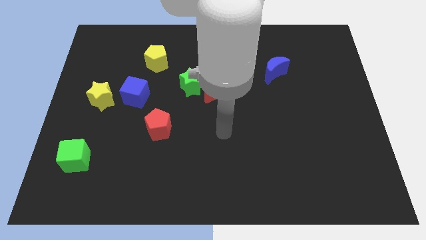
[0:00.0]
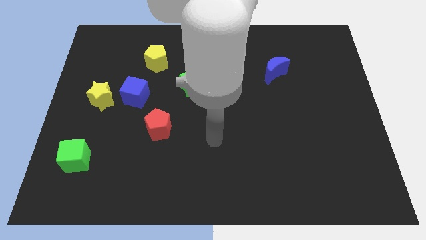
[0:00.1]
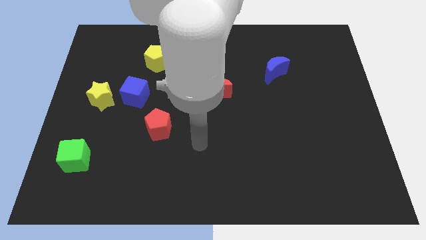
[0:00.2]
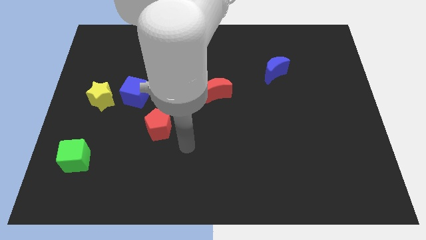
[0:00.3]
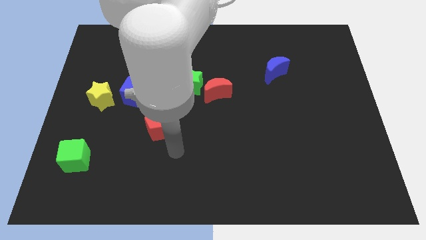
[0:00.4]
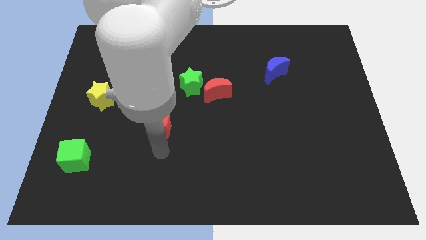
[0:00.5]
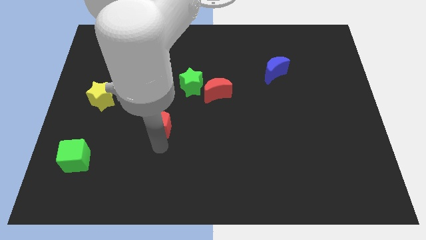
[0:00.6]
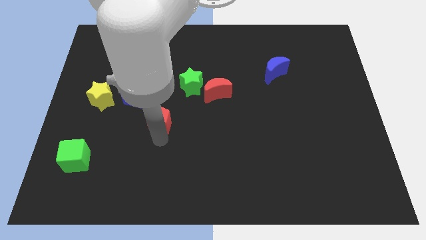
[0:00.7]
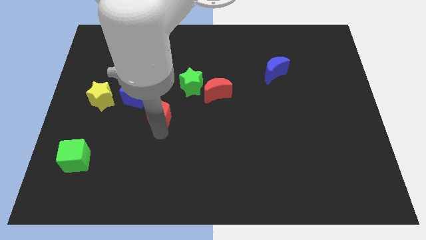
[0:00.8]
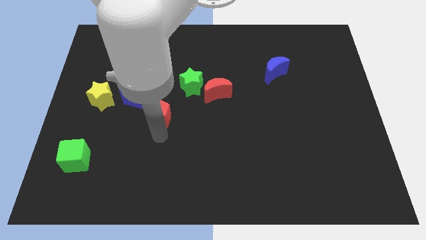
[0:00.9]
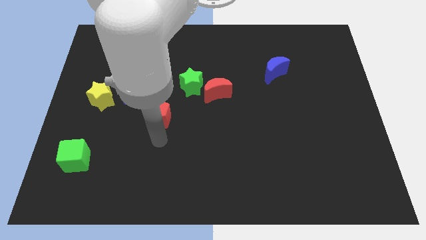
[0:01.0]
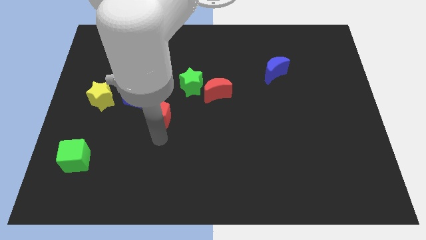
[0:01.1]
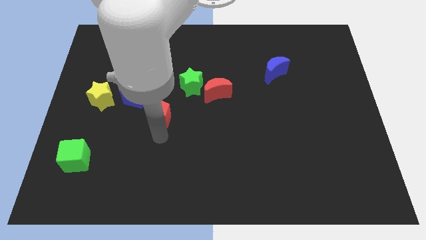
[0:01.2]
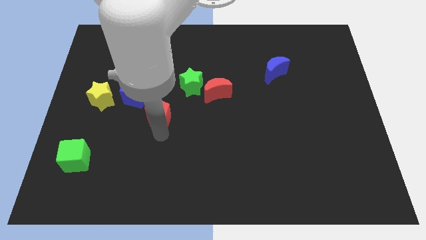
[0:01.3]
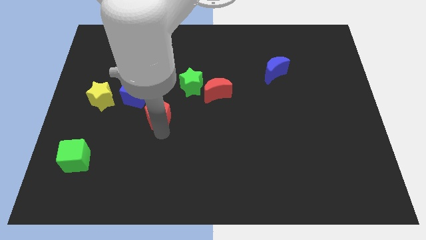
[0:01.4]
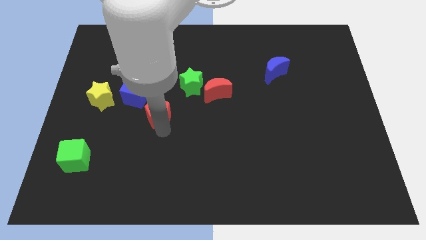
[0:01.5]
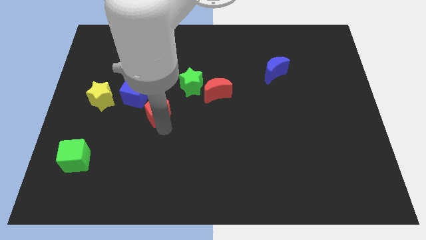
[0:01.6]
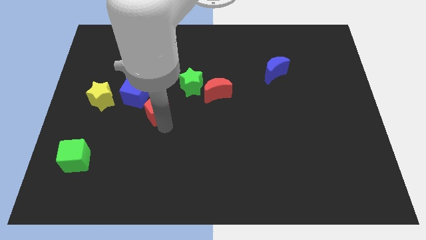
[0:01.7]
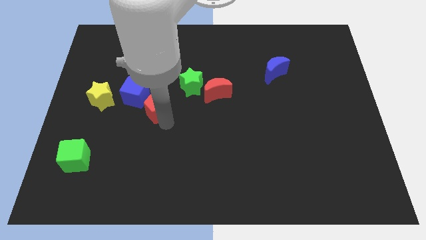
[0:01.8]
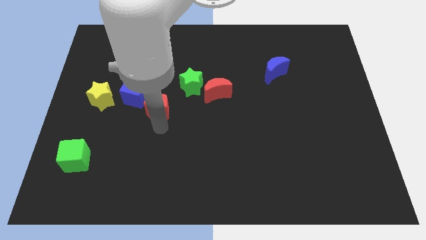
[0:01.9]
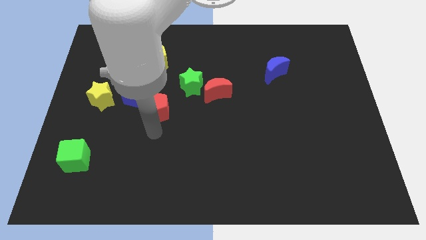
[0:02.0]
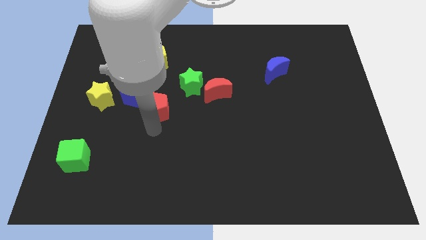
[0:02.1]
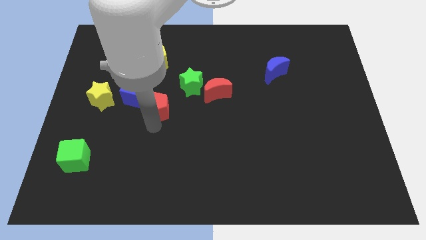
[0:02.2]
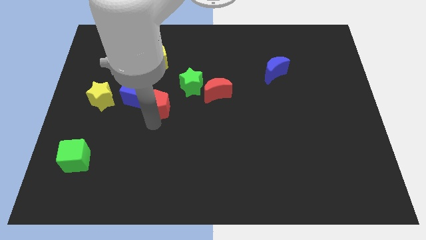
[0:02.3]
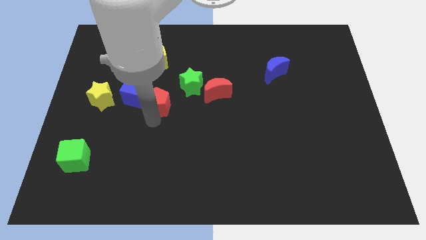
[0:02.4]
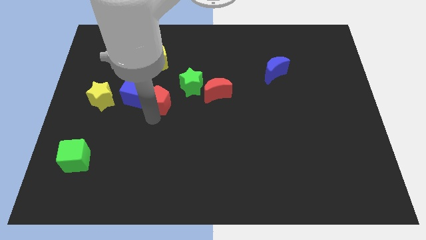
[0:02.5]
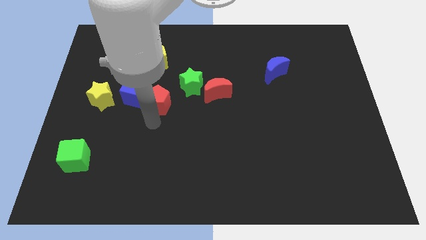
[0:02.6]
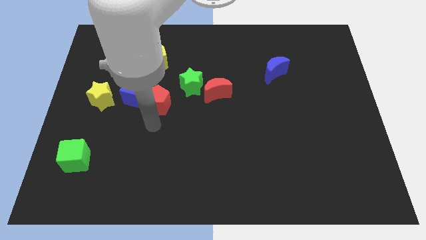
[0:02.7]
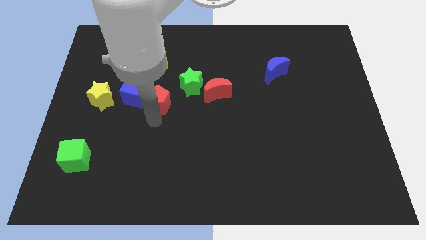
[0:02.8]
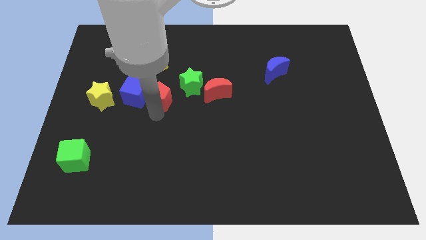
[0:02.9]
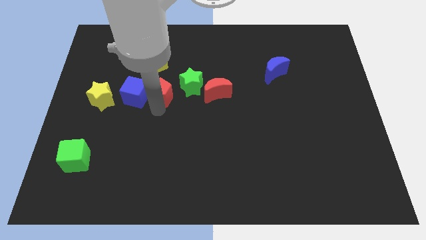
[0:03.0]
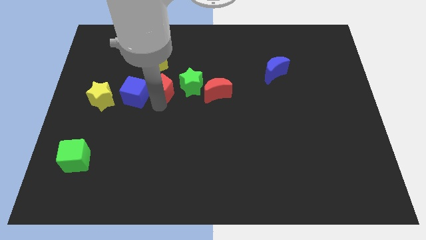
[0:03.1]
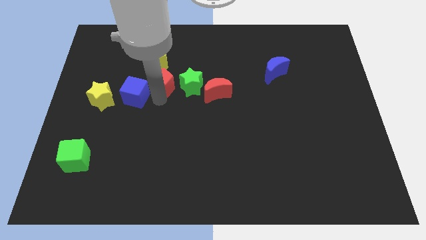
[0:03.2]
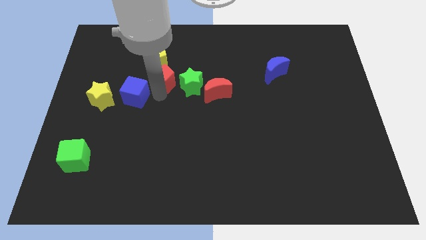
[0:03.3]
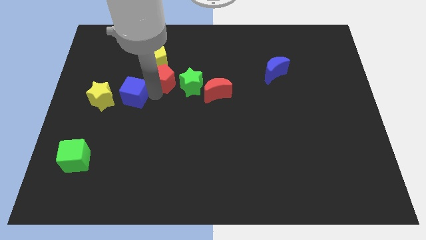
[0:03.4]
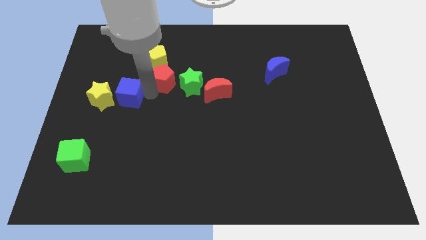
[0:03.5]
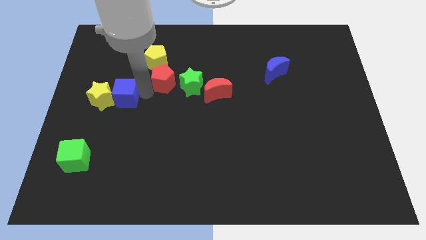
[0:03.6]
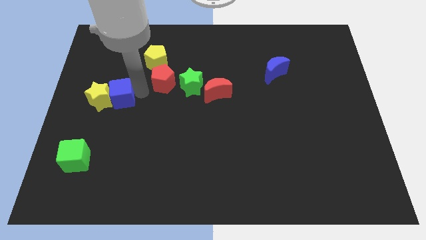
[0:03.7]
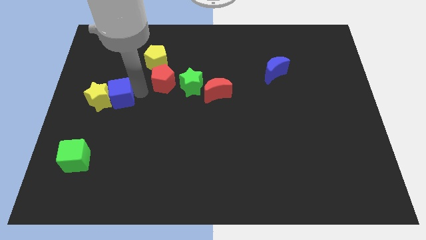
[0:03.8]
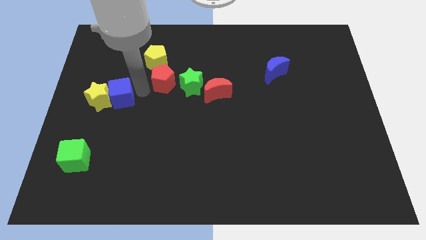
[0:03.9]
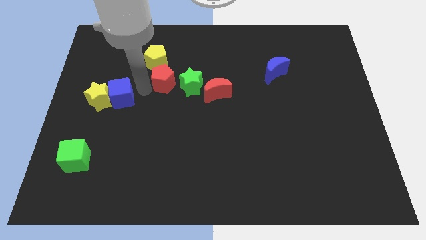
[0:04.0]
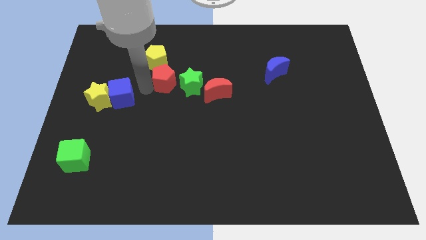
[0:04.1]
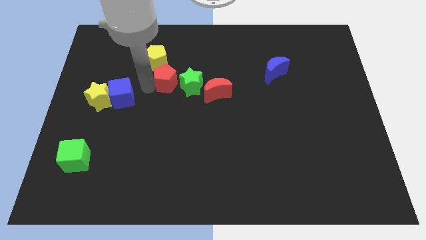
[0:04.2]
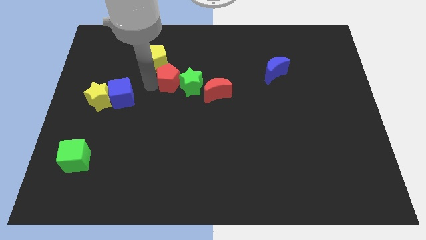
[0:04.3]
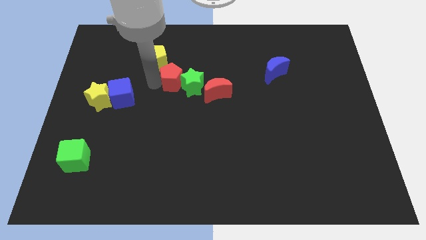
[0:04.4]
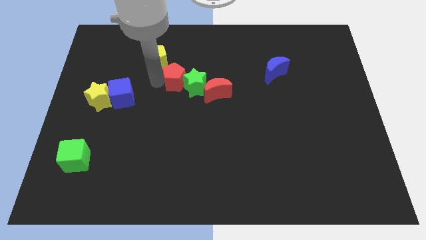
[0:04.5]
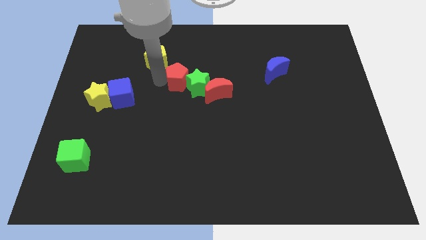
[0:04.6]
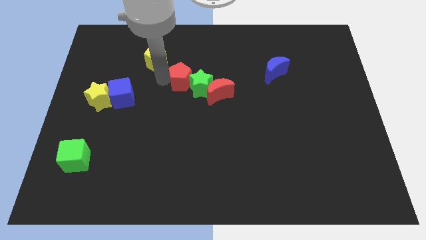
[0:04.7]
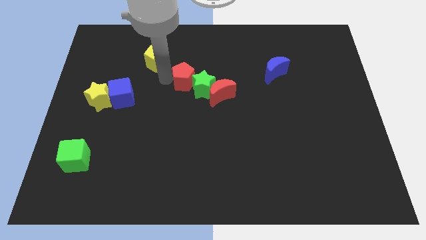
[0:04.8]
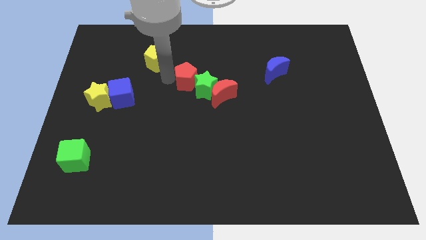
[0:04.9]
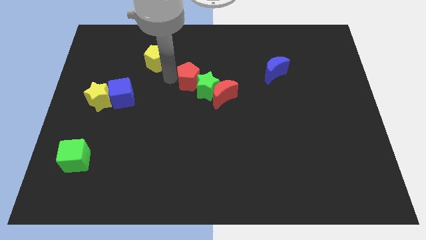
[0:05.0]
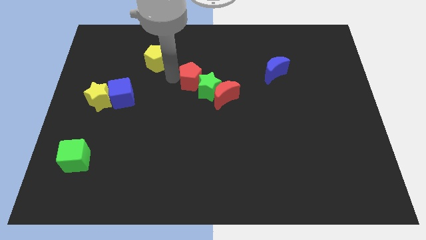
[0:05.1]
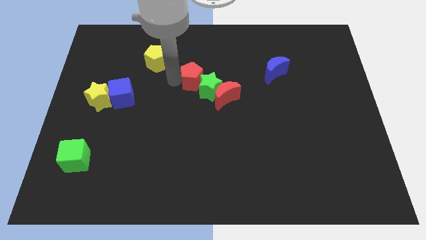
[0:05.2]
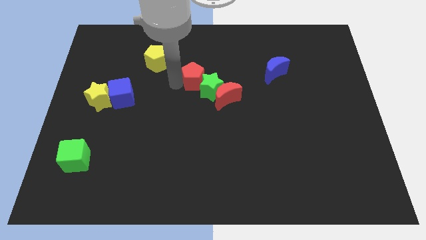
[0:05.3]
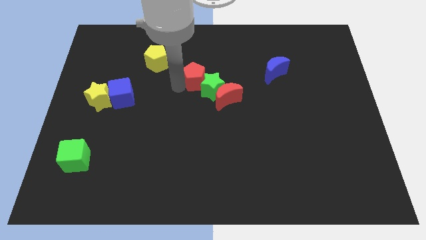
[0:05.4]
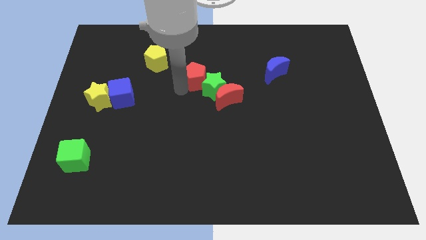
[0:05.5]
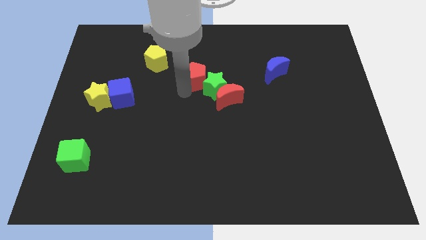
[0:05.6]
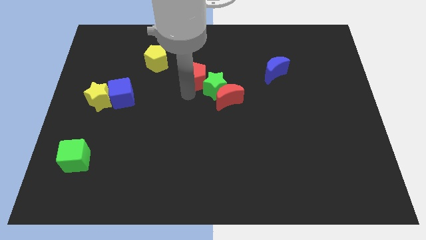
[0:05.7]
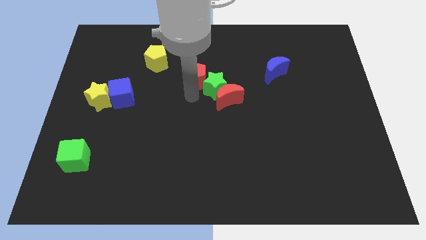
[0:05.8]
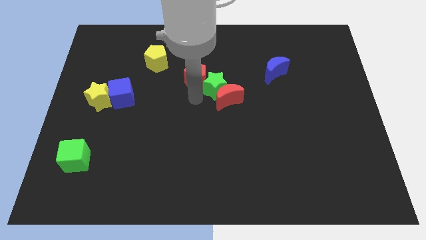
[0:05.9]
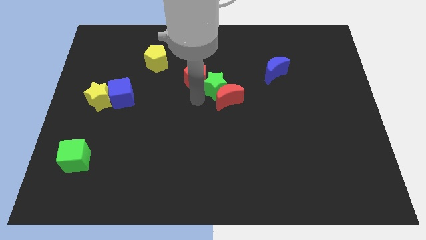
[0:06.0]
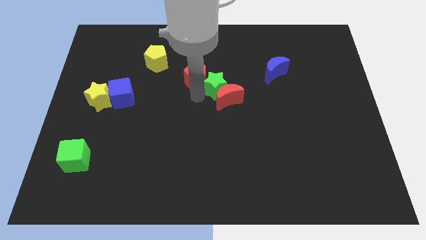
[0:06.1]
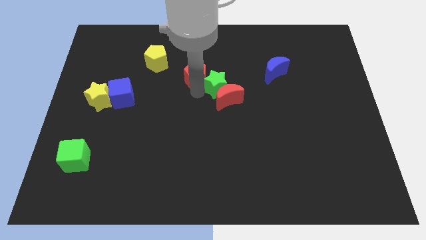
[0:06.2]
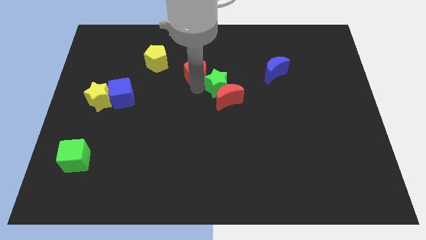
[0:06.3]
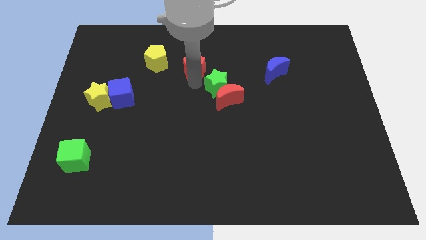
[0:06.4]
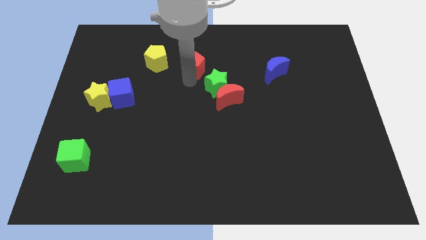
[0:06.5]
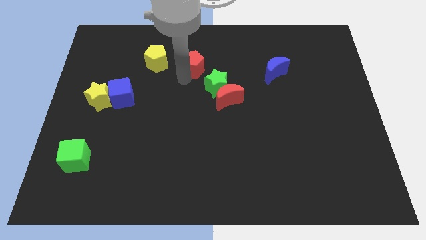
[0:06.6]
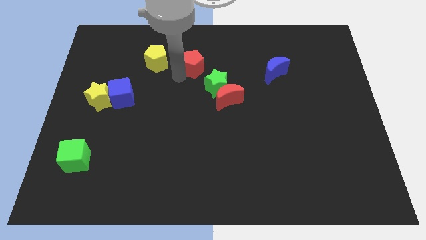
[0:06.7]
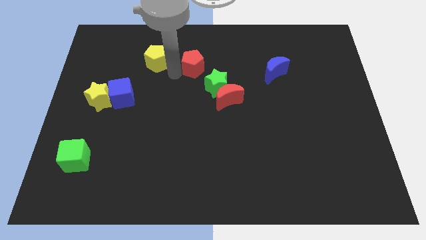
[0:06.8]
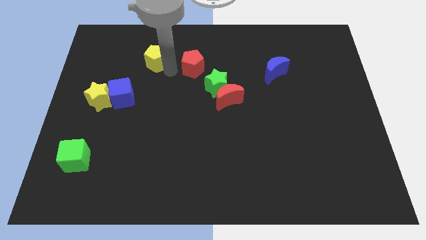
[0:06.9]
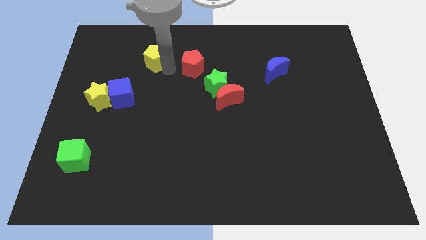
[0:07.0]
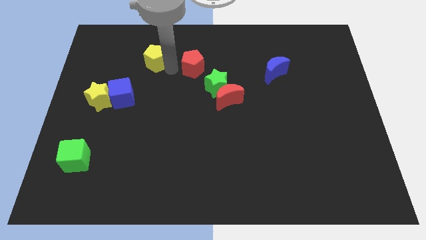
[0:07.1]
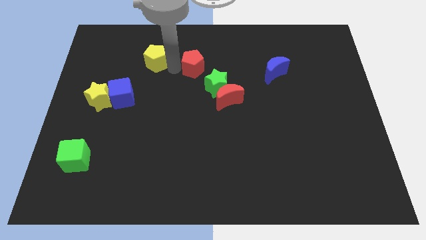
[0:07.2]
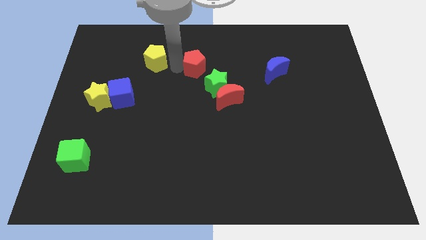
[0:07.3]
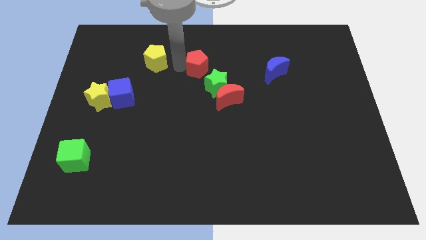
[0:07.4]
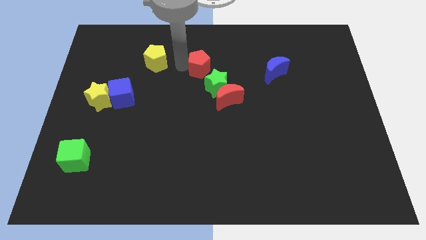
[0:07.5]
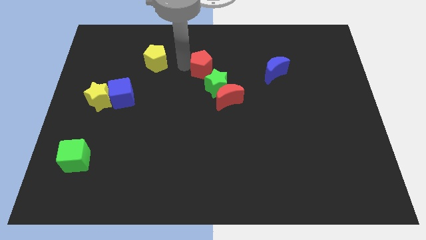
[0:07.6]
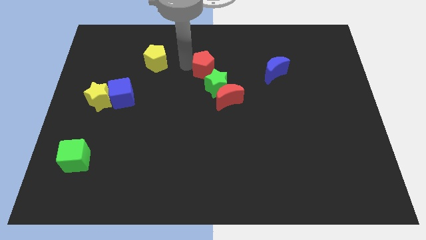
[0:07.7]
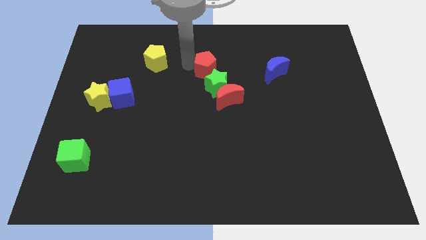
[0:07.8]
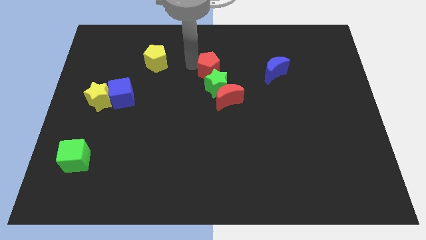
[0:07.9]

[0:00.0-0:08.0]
slide the red pentagon diagonally upwards and to the right

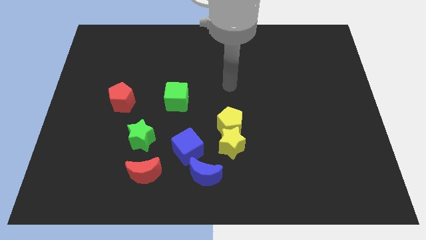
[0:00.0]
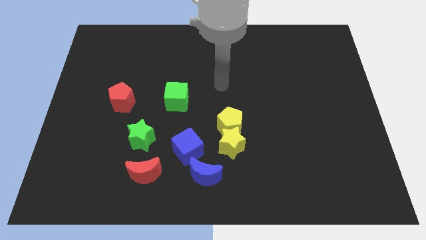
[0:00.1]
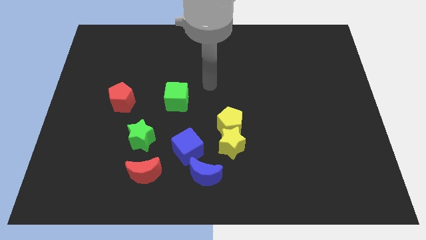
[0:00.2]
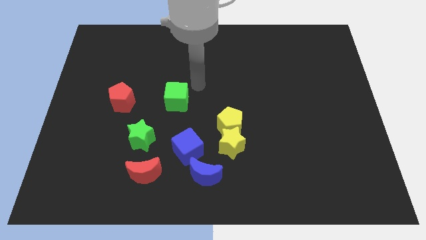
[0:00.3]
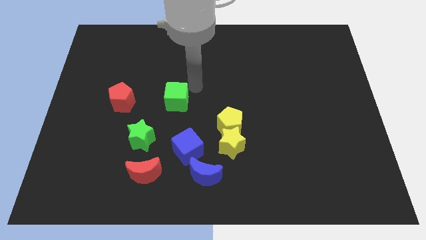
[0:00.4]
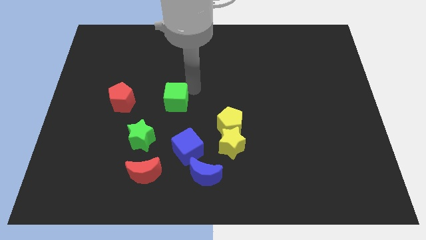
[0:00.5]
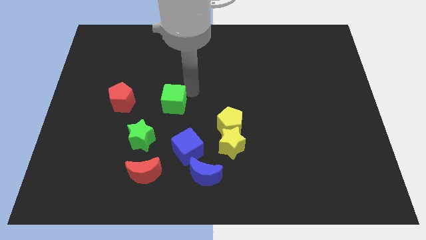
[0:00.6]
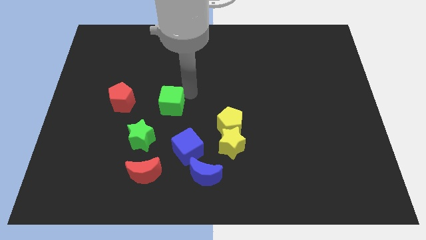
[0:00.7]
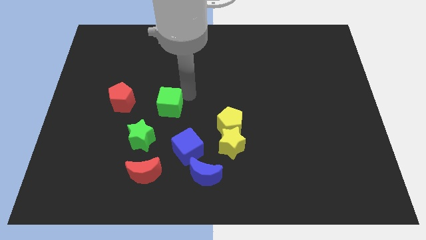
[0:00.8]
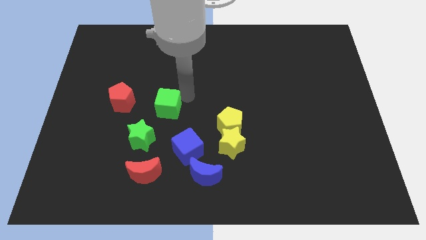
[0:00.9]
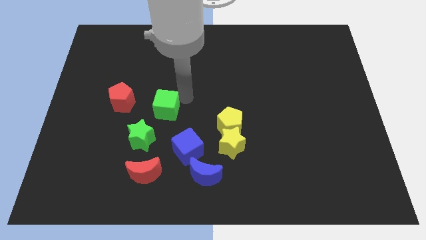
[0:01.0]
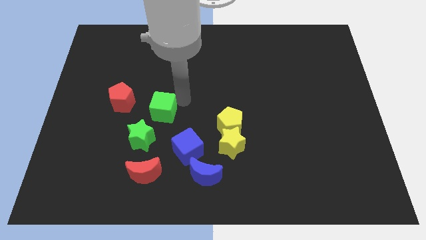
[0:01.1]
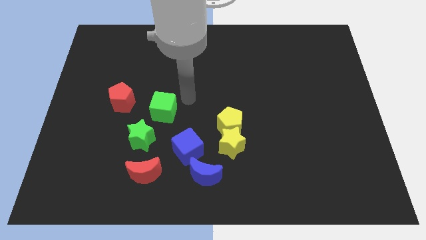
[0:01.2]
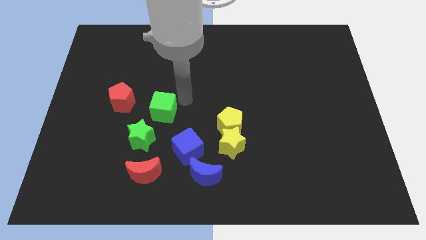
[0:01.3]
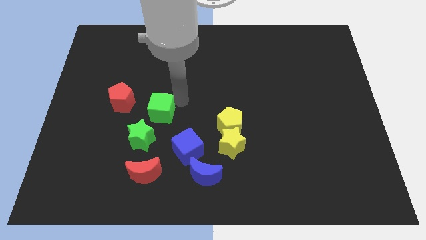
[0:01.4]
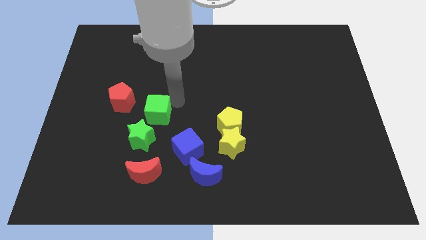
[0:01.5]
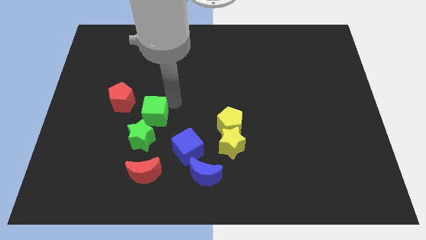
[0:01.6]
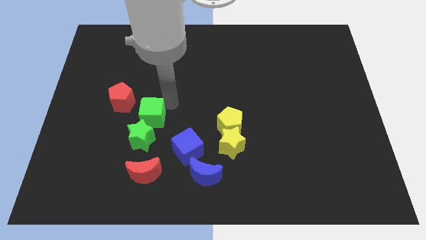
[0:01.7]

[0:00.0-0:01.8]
push the green cube down and left diagonally somewhat
